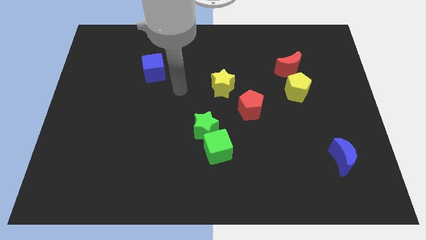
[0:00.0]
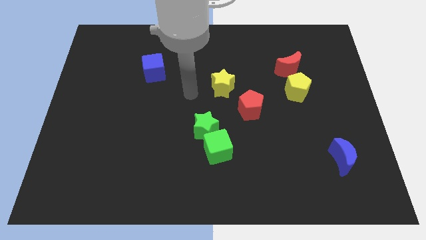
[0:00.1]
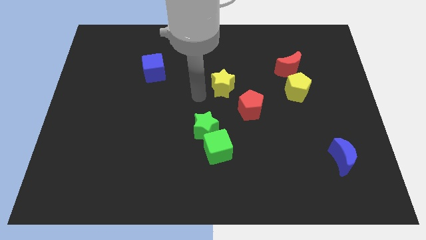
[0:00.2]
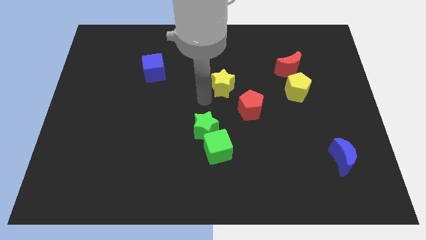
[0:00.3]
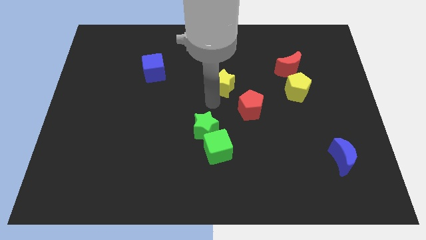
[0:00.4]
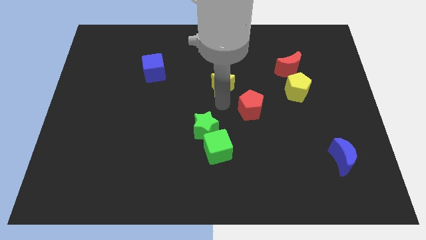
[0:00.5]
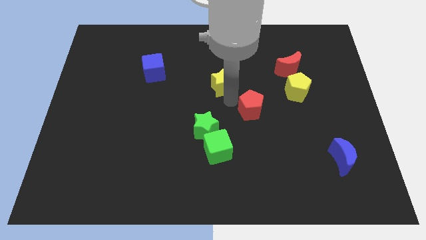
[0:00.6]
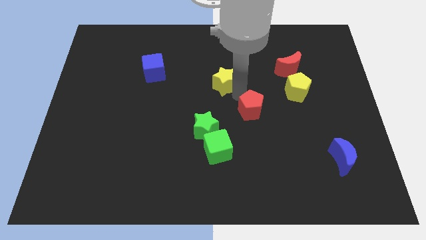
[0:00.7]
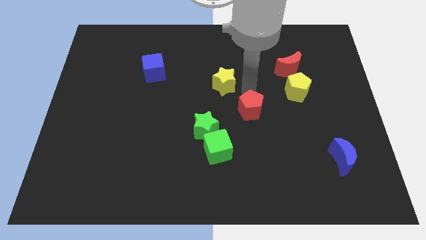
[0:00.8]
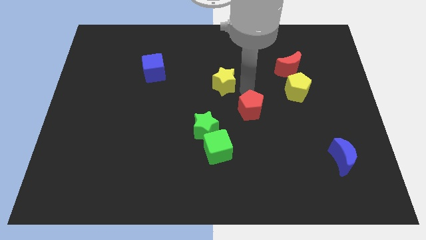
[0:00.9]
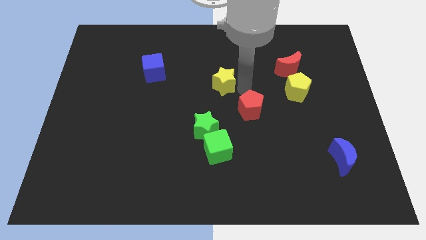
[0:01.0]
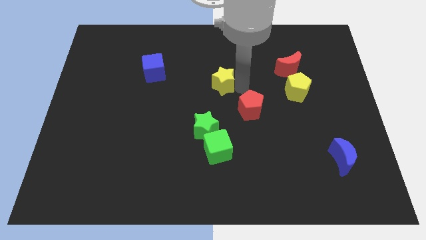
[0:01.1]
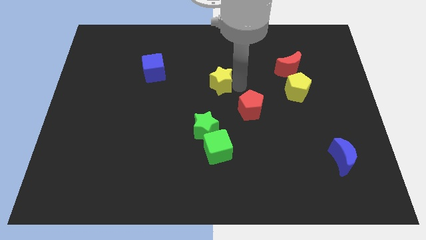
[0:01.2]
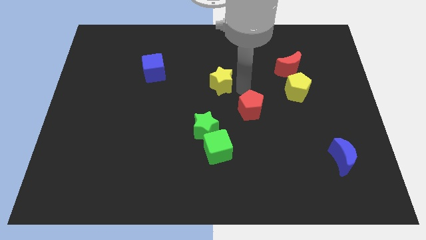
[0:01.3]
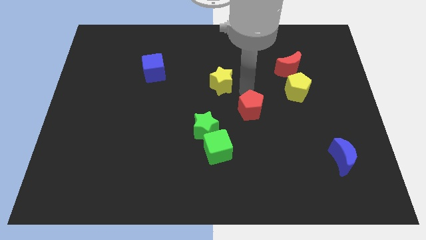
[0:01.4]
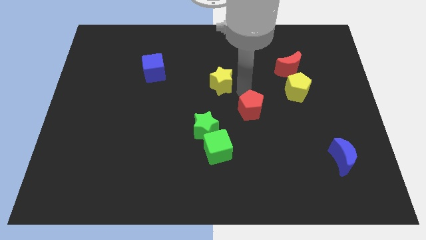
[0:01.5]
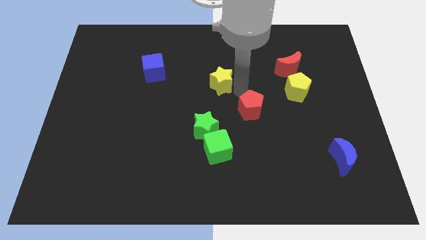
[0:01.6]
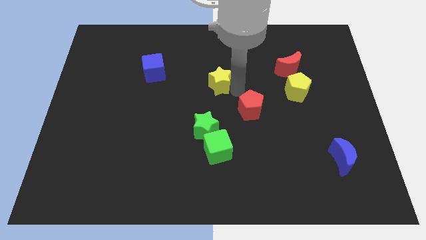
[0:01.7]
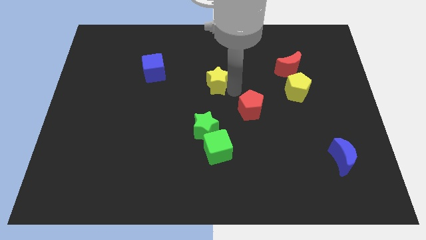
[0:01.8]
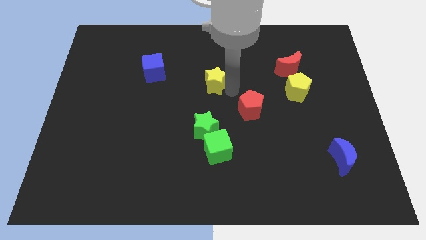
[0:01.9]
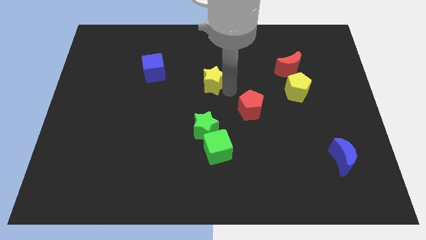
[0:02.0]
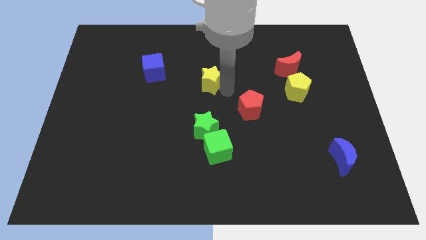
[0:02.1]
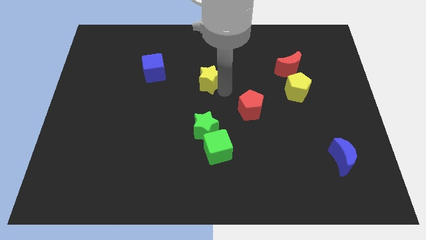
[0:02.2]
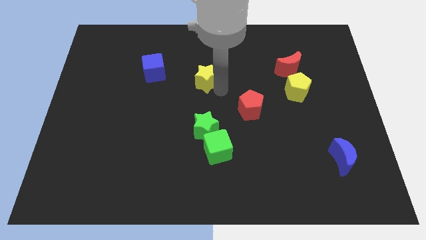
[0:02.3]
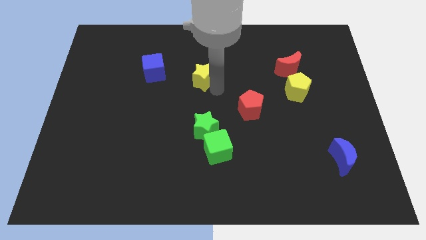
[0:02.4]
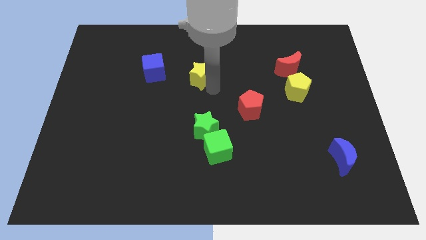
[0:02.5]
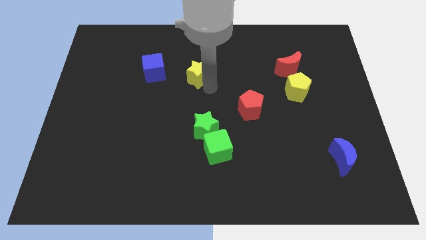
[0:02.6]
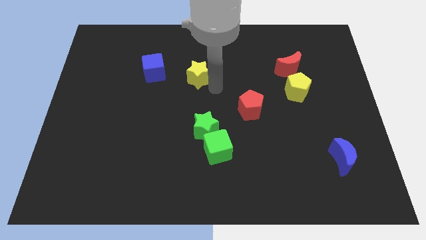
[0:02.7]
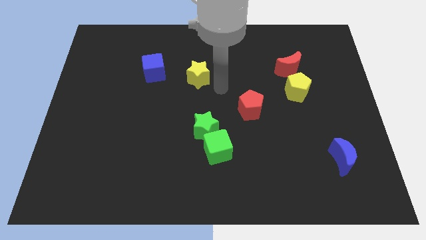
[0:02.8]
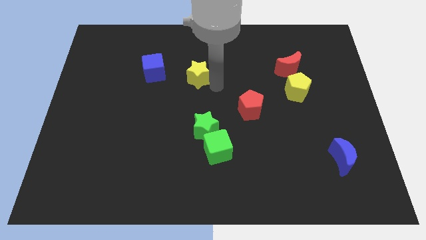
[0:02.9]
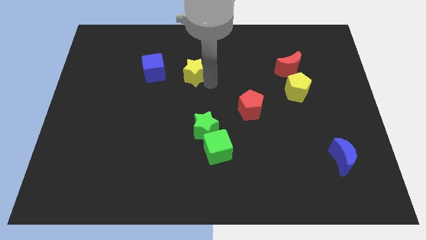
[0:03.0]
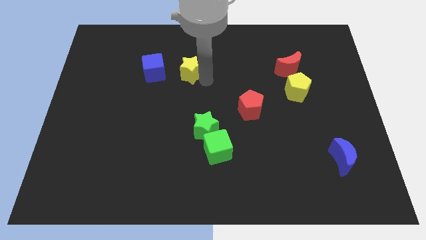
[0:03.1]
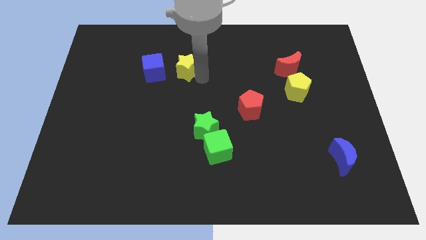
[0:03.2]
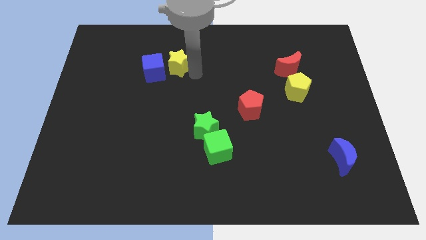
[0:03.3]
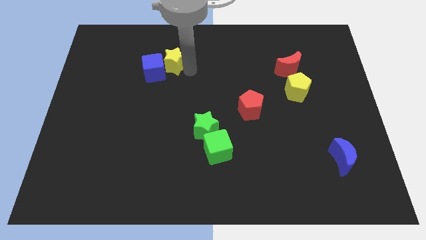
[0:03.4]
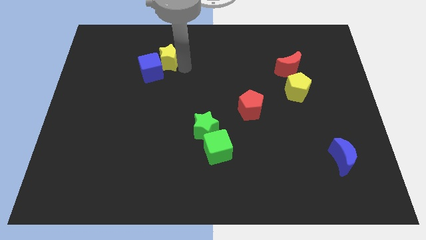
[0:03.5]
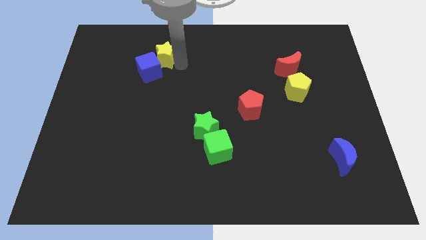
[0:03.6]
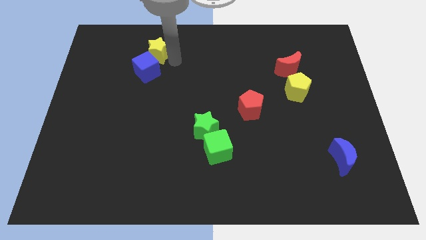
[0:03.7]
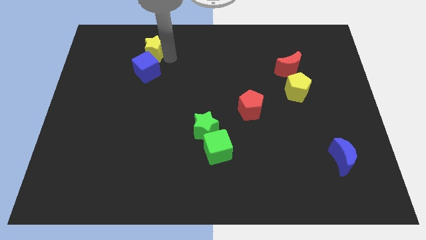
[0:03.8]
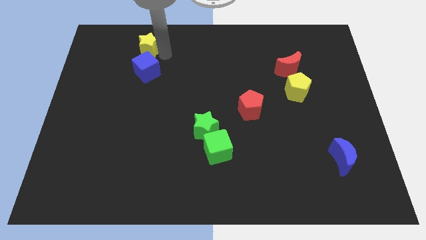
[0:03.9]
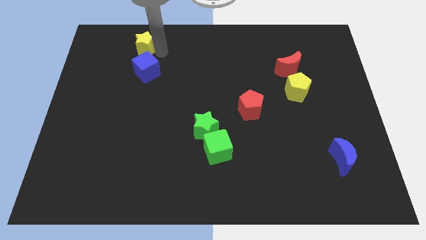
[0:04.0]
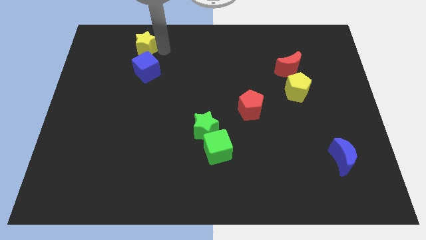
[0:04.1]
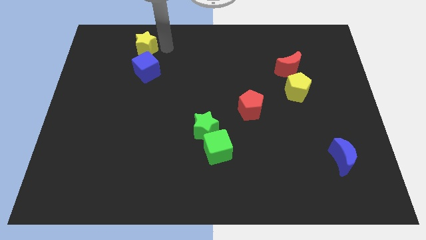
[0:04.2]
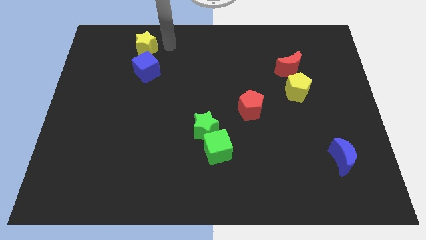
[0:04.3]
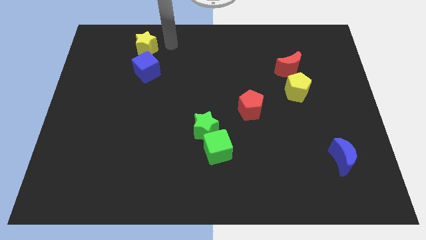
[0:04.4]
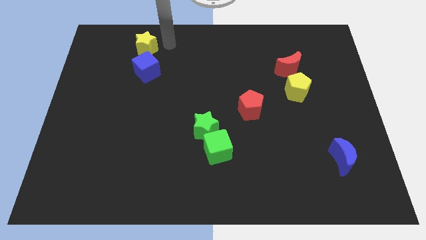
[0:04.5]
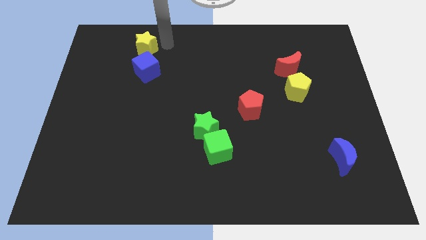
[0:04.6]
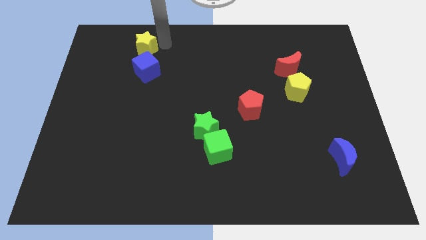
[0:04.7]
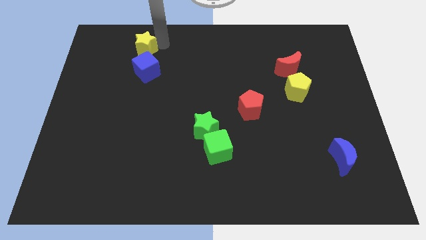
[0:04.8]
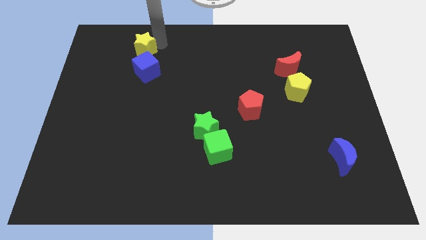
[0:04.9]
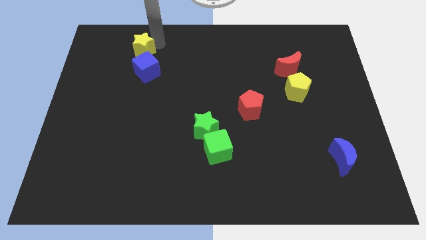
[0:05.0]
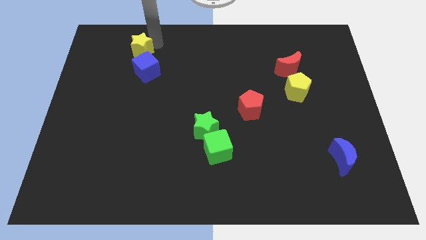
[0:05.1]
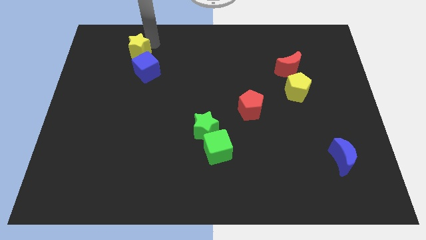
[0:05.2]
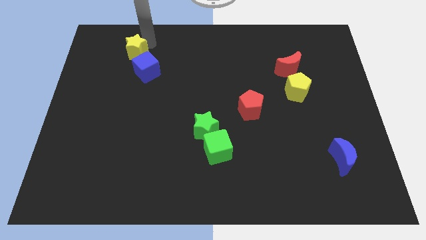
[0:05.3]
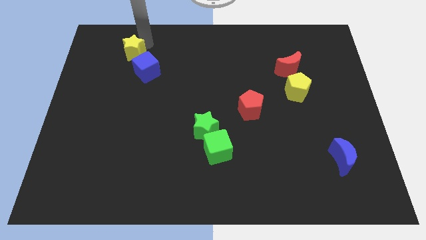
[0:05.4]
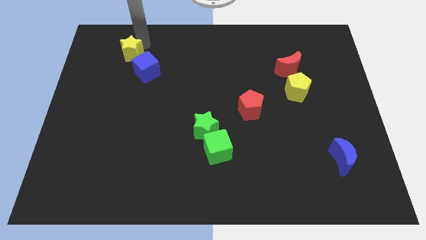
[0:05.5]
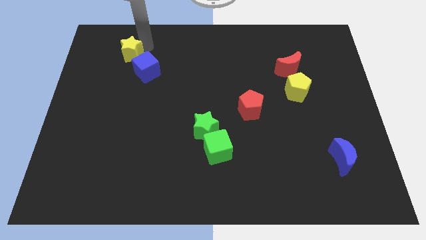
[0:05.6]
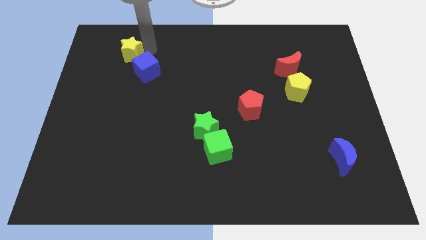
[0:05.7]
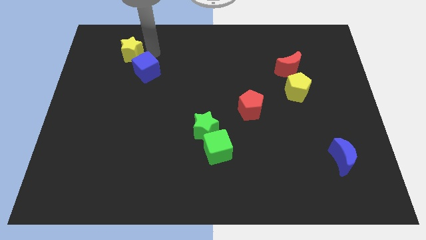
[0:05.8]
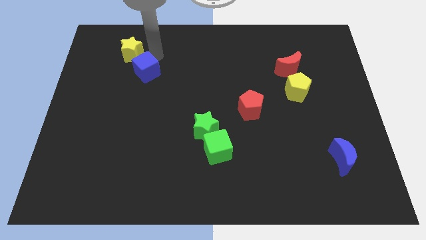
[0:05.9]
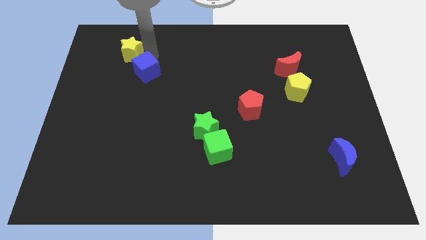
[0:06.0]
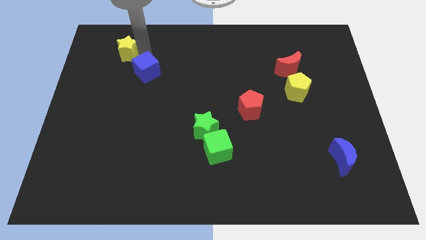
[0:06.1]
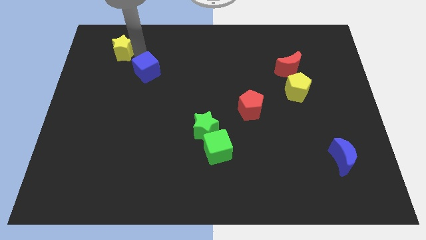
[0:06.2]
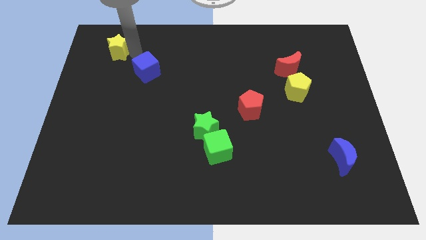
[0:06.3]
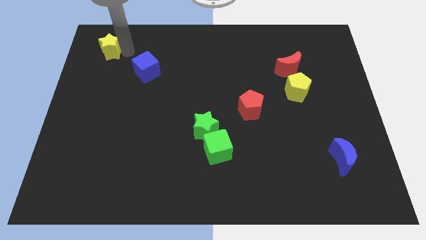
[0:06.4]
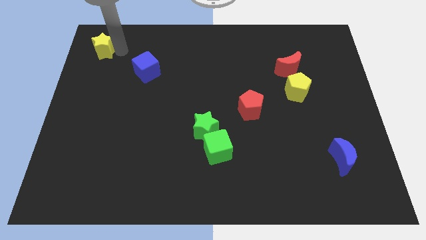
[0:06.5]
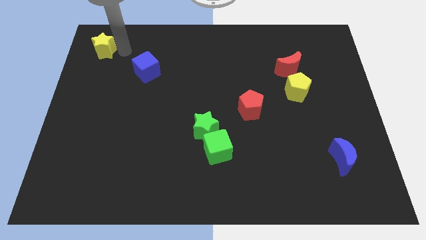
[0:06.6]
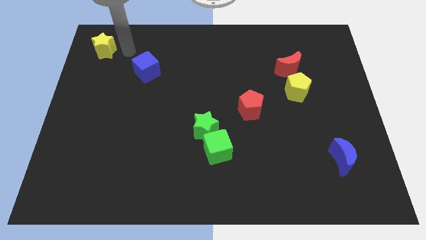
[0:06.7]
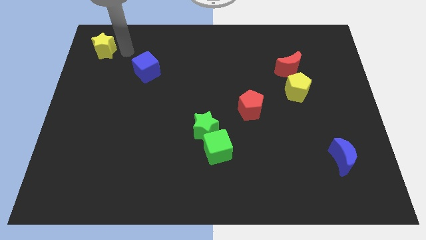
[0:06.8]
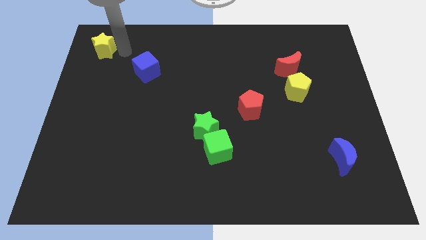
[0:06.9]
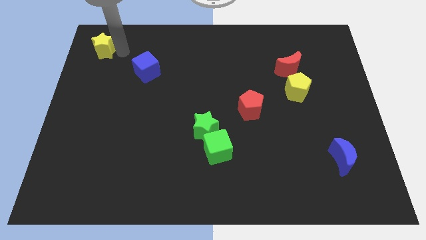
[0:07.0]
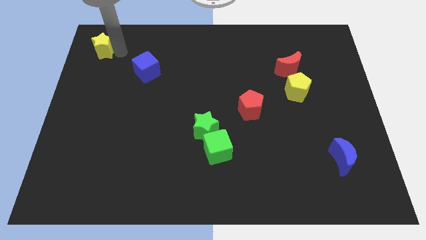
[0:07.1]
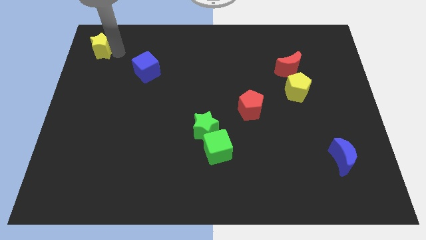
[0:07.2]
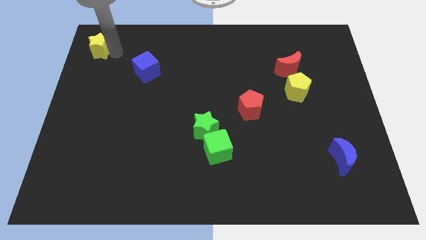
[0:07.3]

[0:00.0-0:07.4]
put the yellow star to the top left of the board
